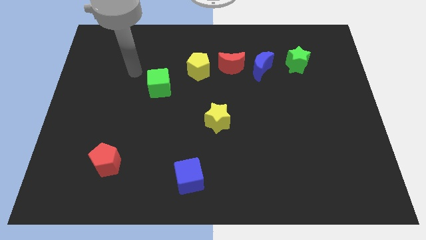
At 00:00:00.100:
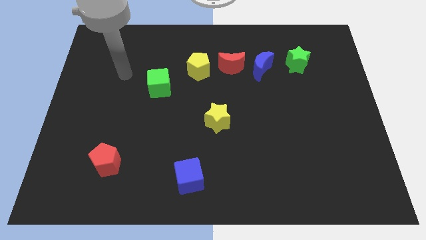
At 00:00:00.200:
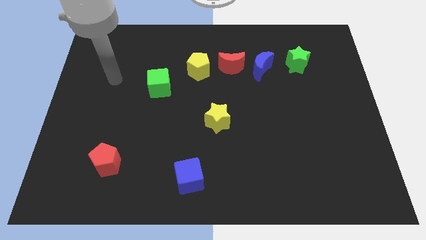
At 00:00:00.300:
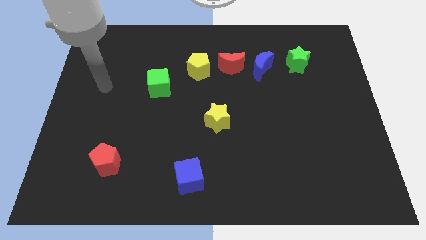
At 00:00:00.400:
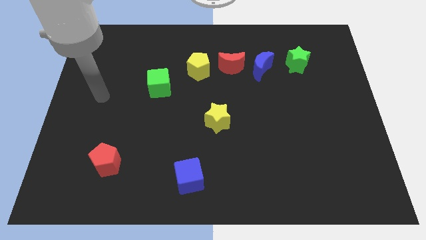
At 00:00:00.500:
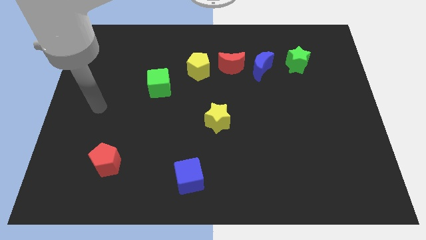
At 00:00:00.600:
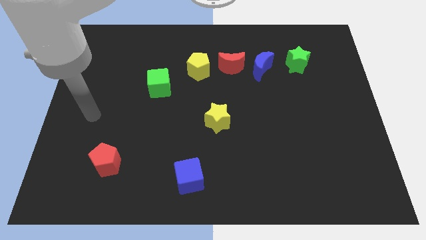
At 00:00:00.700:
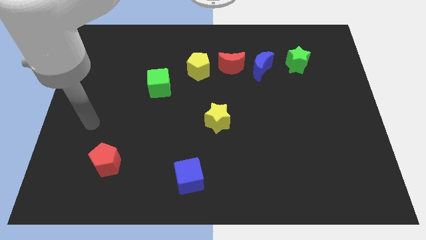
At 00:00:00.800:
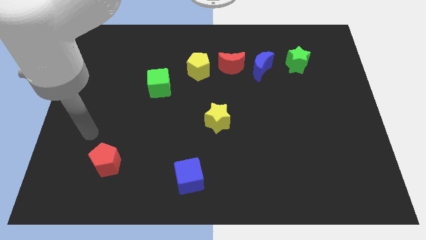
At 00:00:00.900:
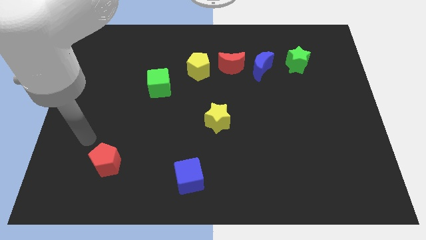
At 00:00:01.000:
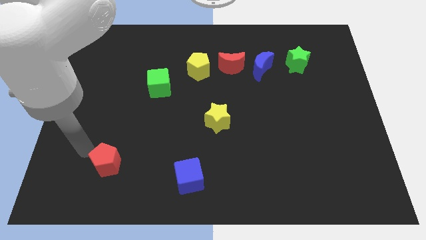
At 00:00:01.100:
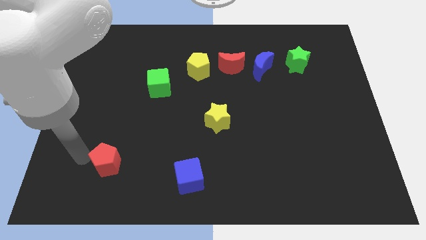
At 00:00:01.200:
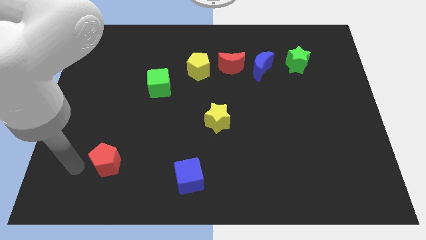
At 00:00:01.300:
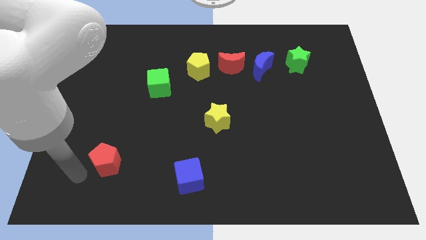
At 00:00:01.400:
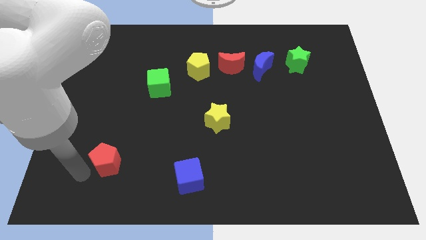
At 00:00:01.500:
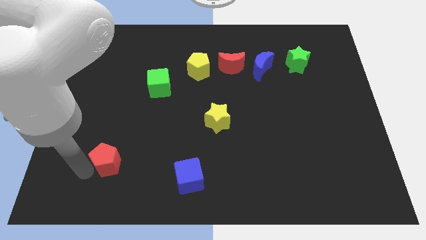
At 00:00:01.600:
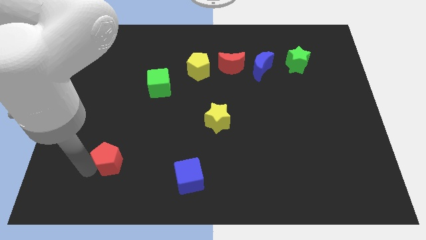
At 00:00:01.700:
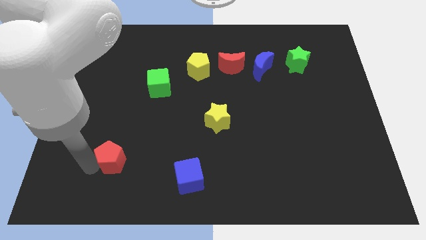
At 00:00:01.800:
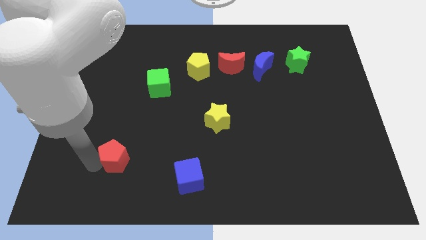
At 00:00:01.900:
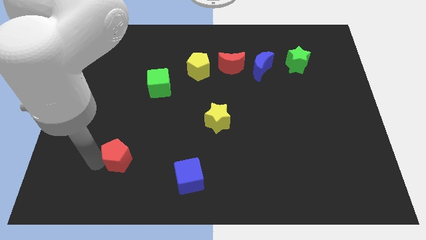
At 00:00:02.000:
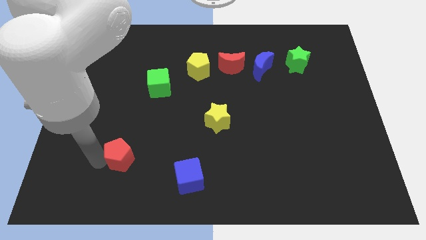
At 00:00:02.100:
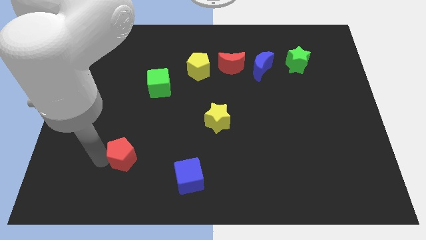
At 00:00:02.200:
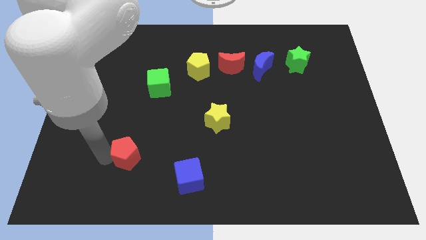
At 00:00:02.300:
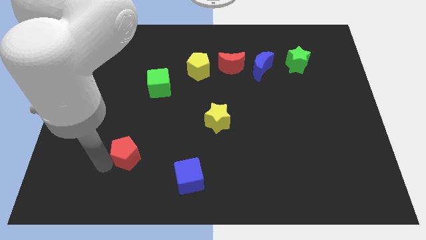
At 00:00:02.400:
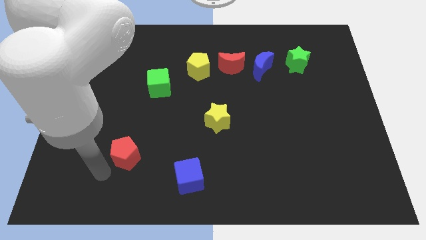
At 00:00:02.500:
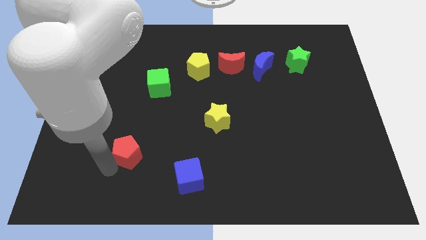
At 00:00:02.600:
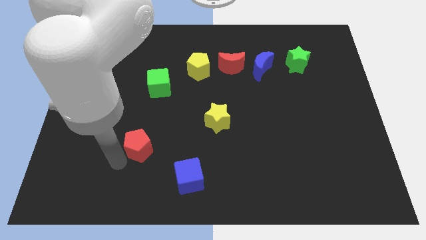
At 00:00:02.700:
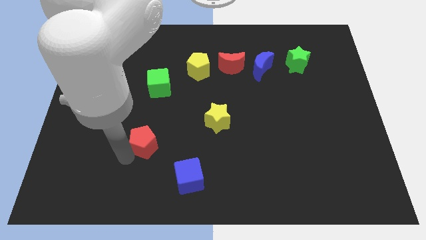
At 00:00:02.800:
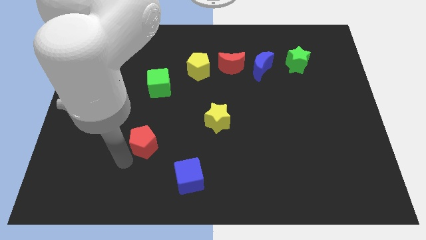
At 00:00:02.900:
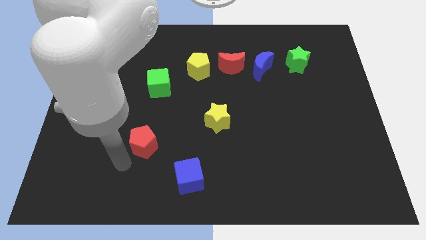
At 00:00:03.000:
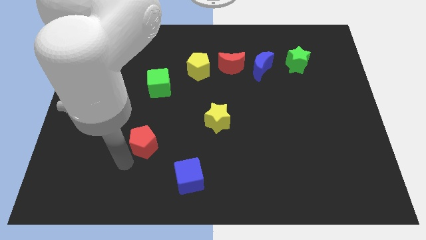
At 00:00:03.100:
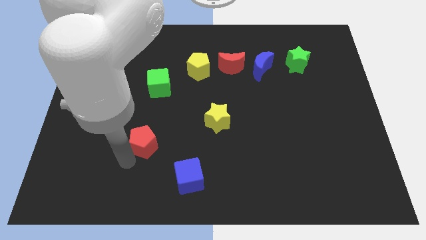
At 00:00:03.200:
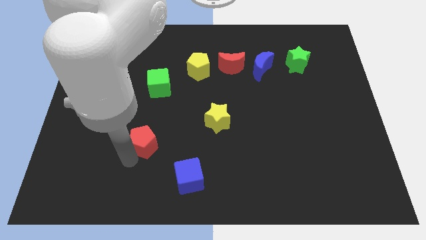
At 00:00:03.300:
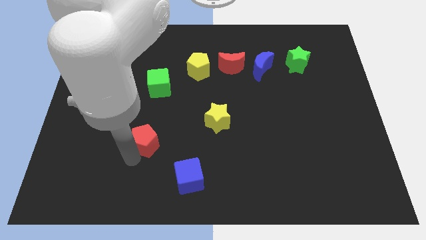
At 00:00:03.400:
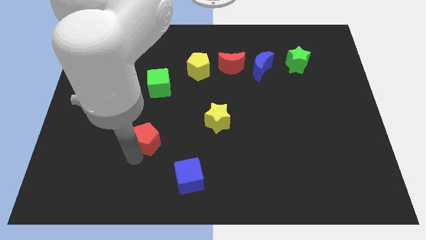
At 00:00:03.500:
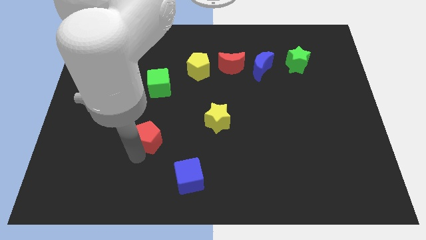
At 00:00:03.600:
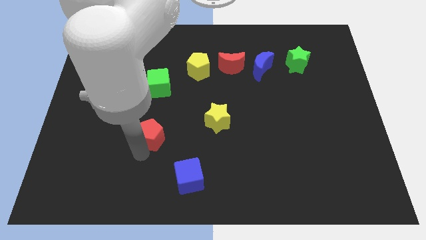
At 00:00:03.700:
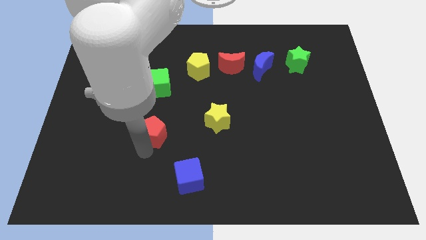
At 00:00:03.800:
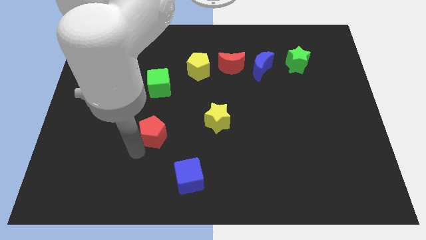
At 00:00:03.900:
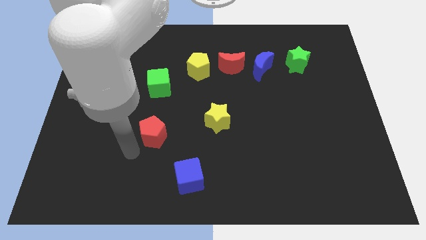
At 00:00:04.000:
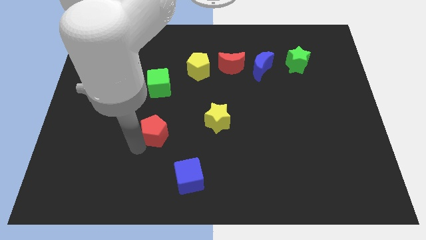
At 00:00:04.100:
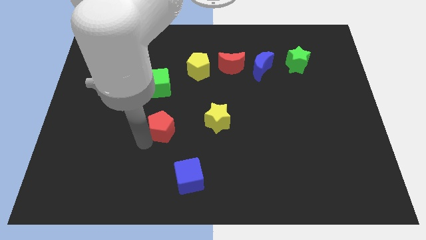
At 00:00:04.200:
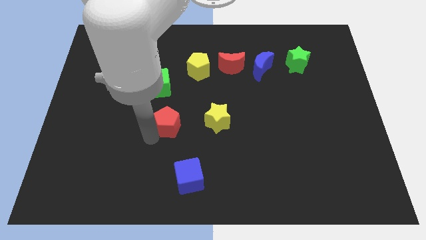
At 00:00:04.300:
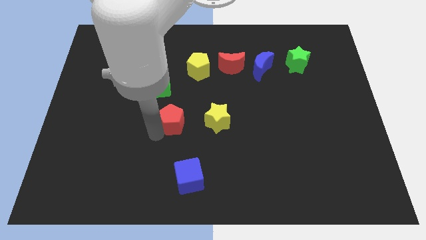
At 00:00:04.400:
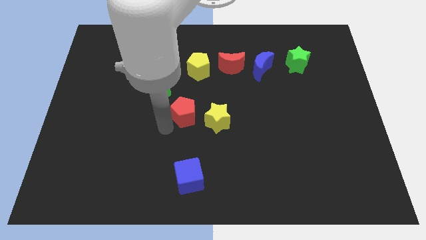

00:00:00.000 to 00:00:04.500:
push the red pentagon upwards and then to the right

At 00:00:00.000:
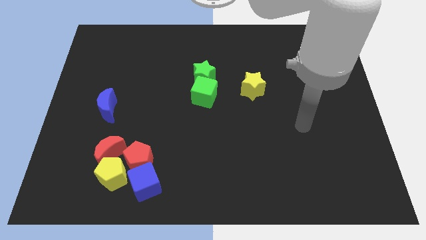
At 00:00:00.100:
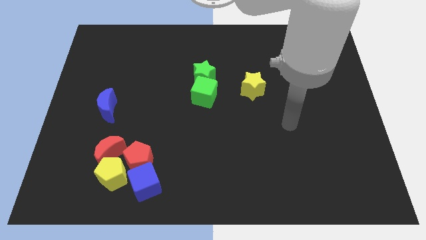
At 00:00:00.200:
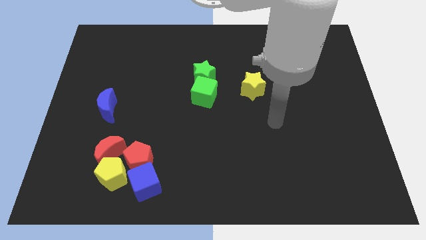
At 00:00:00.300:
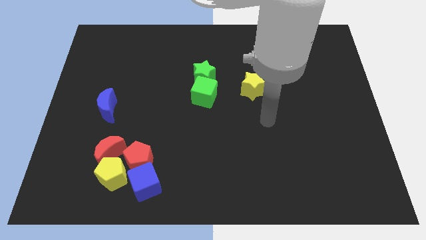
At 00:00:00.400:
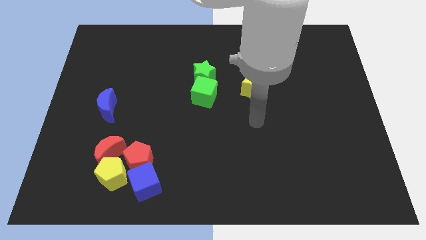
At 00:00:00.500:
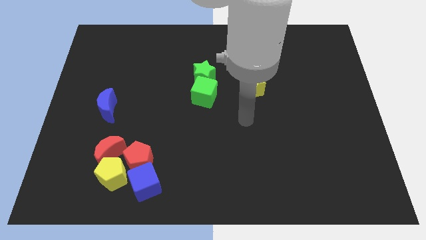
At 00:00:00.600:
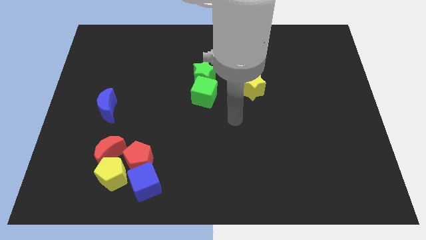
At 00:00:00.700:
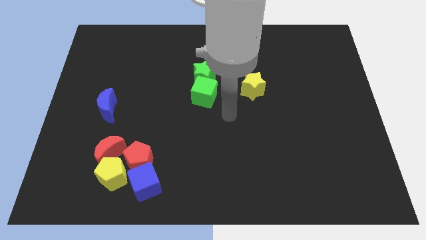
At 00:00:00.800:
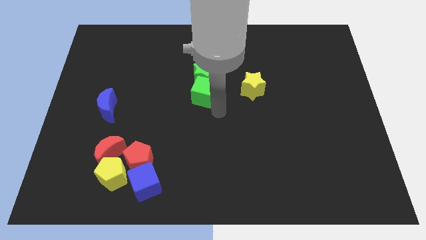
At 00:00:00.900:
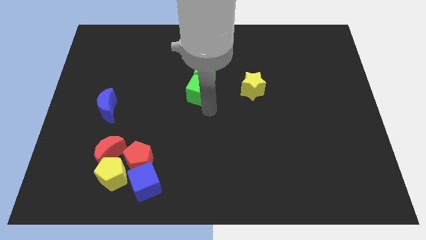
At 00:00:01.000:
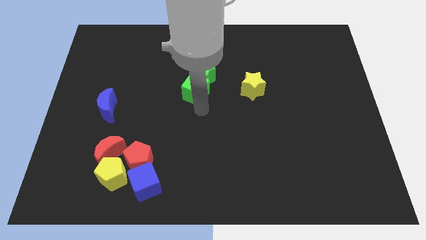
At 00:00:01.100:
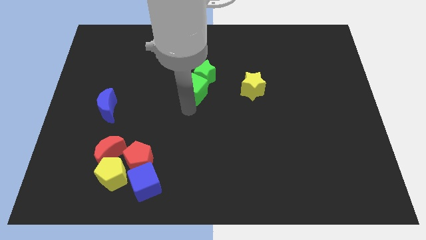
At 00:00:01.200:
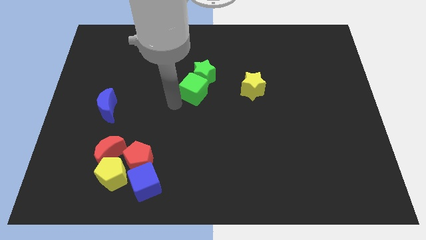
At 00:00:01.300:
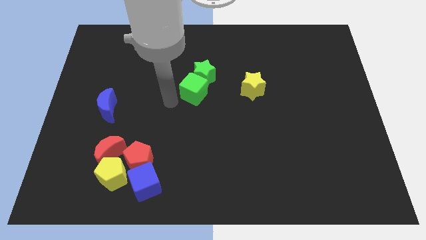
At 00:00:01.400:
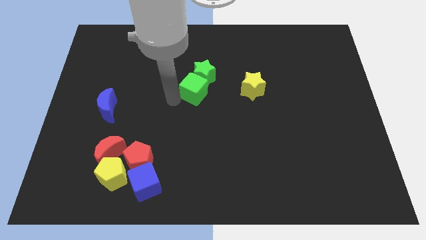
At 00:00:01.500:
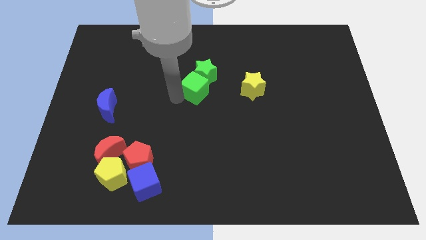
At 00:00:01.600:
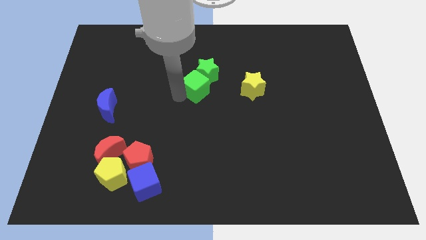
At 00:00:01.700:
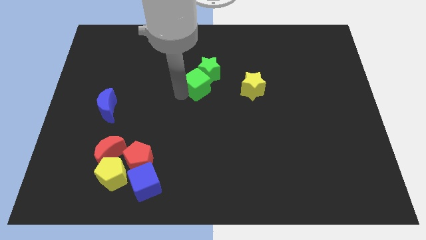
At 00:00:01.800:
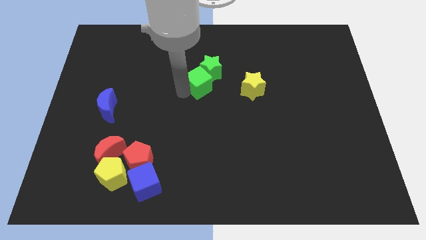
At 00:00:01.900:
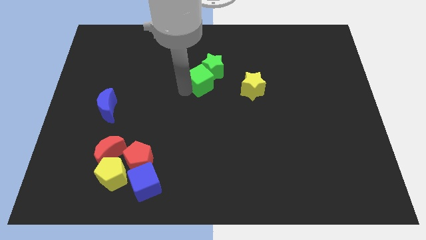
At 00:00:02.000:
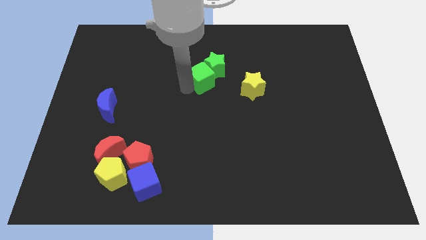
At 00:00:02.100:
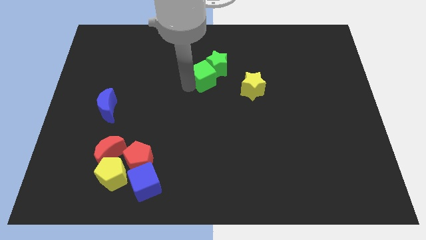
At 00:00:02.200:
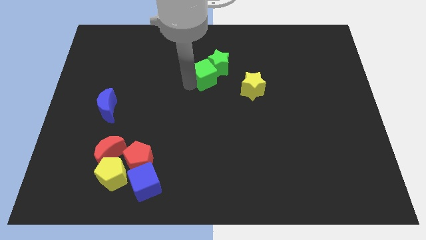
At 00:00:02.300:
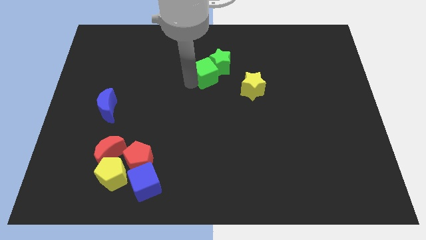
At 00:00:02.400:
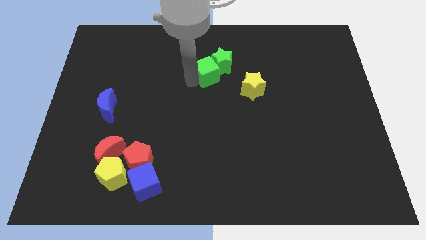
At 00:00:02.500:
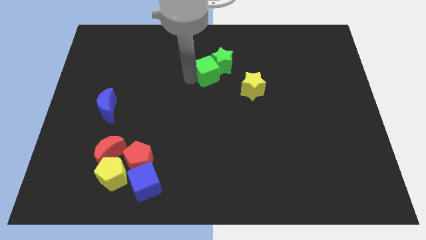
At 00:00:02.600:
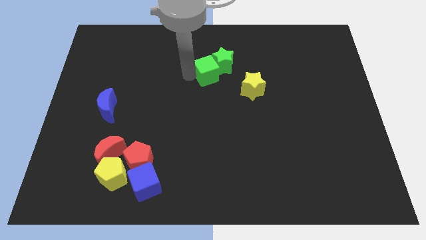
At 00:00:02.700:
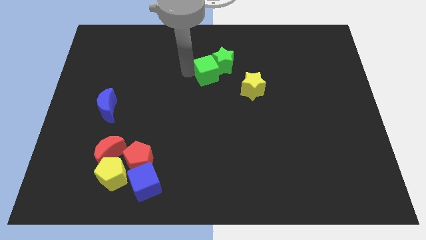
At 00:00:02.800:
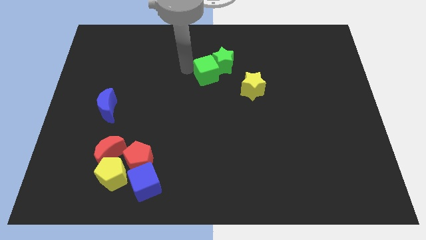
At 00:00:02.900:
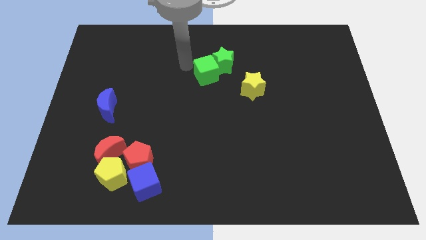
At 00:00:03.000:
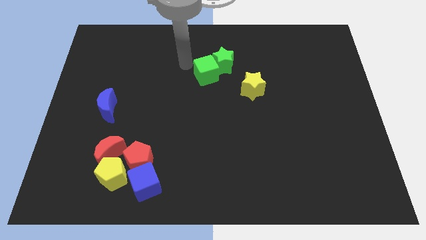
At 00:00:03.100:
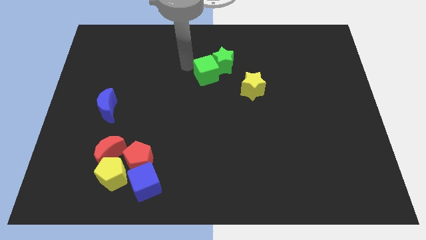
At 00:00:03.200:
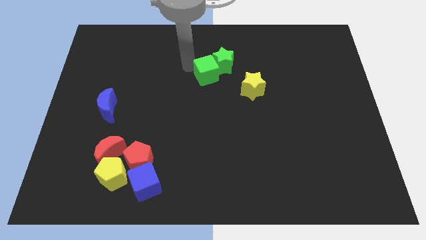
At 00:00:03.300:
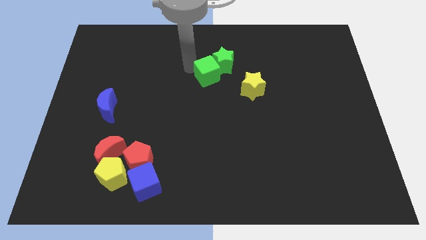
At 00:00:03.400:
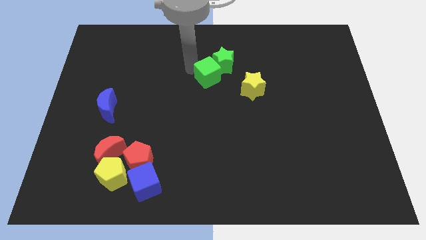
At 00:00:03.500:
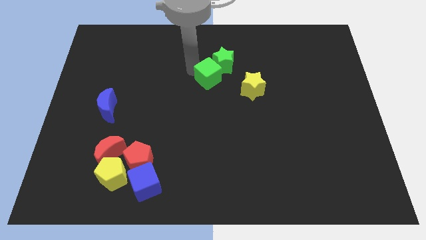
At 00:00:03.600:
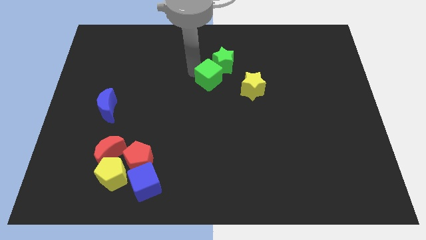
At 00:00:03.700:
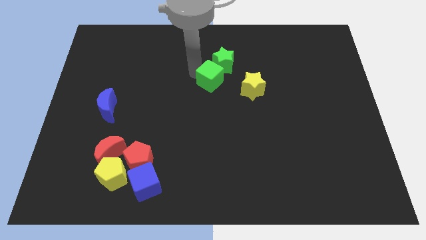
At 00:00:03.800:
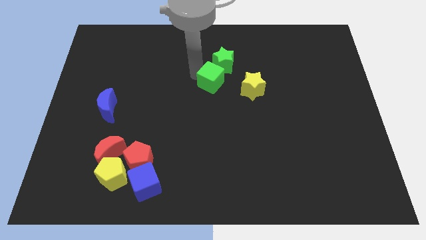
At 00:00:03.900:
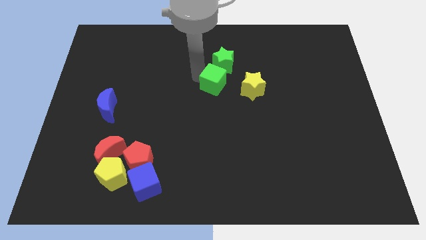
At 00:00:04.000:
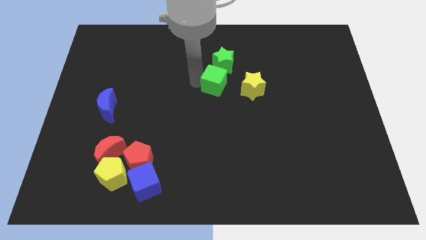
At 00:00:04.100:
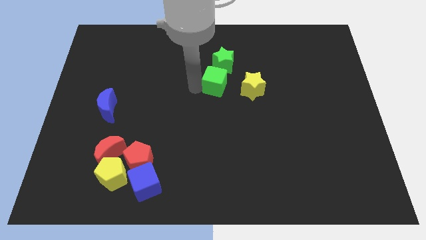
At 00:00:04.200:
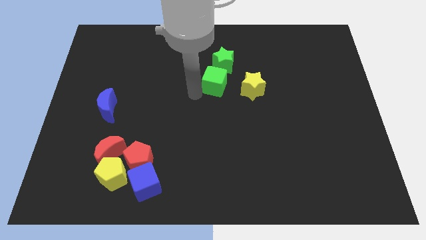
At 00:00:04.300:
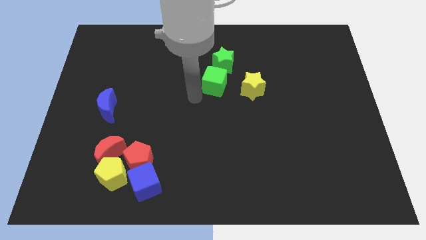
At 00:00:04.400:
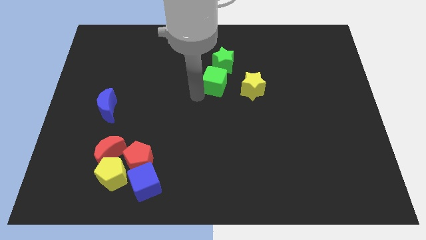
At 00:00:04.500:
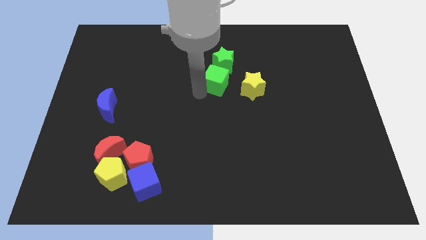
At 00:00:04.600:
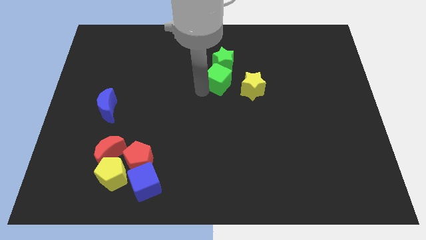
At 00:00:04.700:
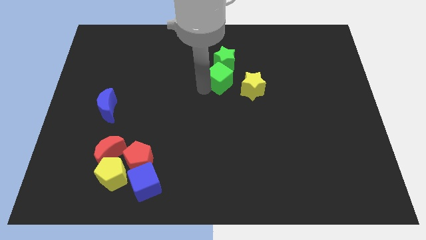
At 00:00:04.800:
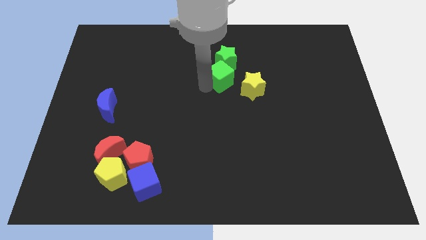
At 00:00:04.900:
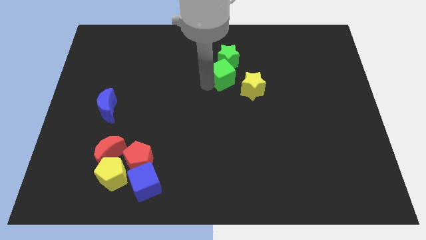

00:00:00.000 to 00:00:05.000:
slightly push the green cube diagonally upwards and to the right
